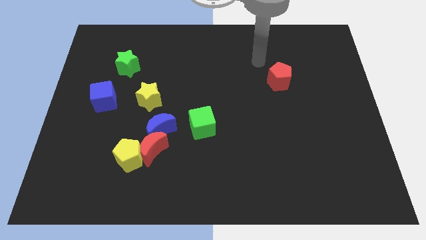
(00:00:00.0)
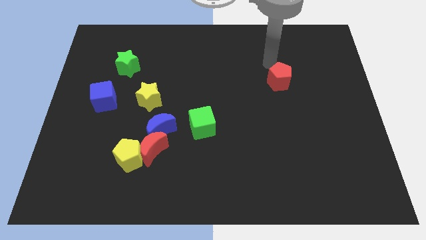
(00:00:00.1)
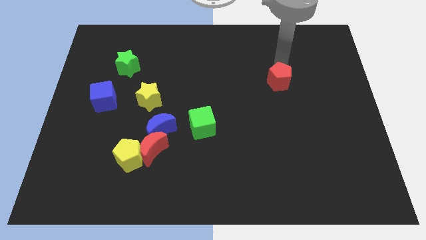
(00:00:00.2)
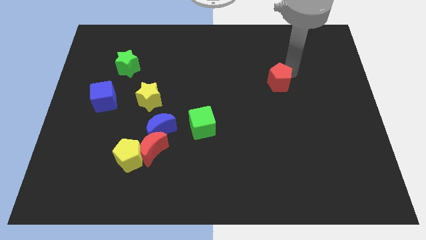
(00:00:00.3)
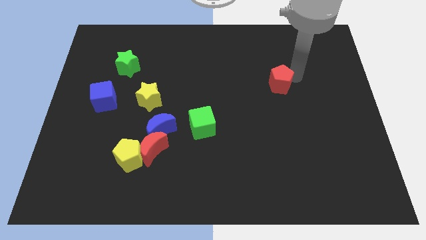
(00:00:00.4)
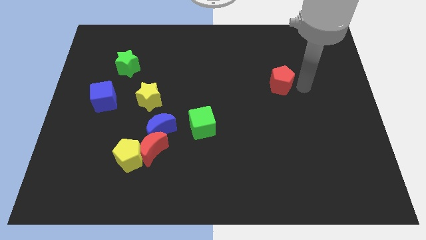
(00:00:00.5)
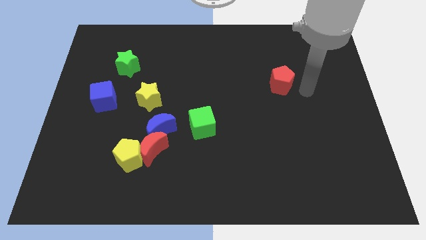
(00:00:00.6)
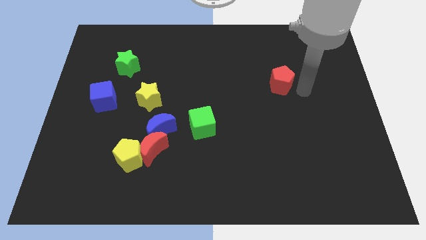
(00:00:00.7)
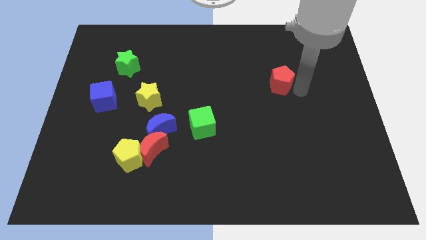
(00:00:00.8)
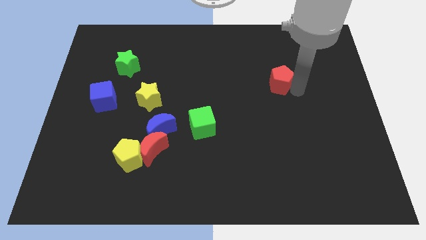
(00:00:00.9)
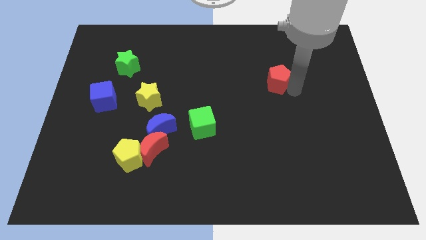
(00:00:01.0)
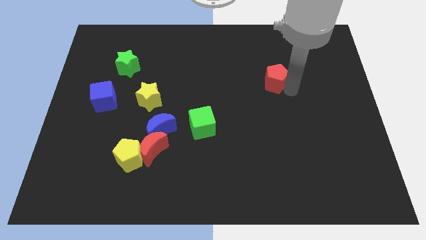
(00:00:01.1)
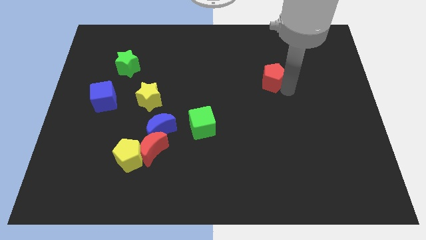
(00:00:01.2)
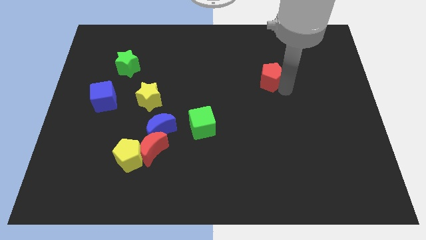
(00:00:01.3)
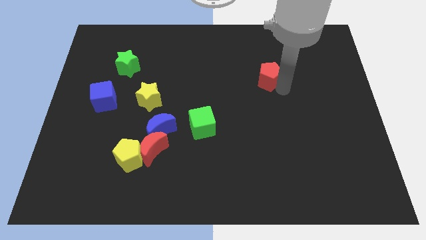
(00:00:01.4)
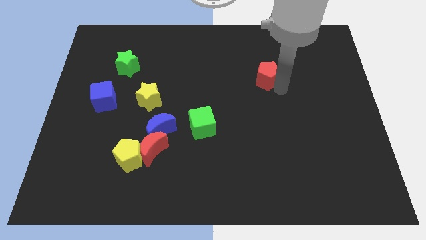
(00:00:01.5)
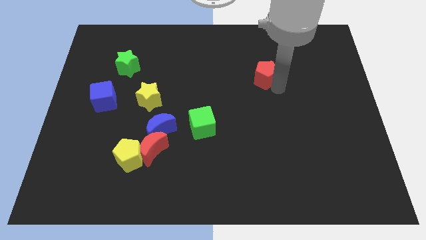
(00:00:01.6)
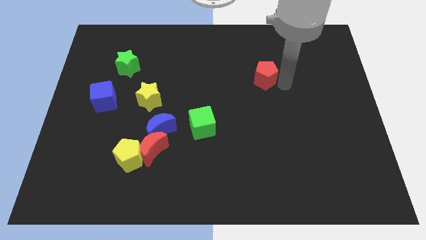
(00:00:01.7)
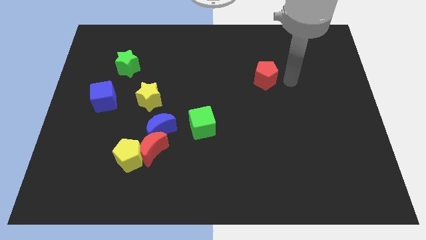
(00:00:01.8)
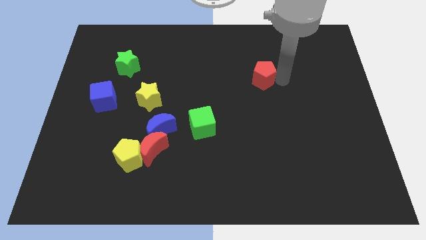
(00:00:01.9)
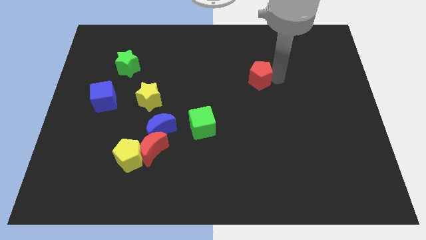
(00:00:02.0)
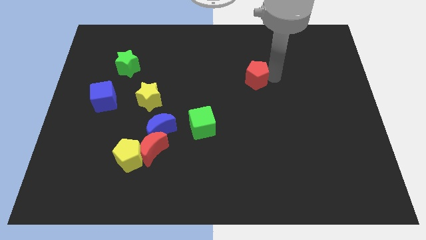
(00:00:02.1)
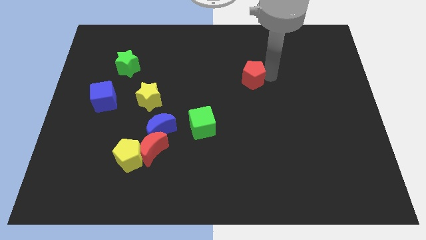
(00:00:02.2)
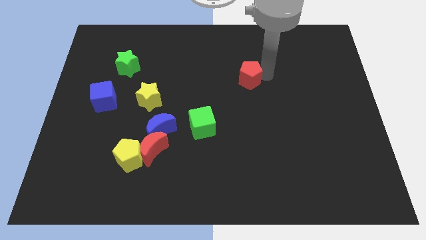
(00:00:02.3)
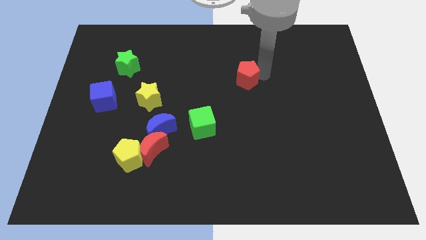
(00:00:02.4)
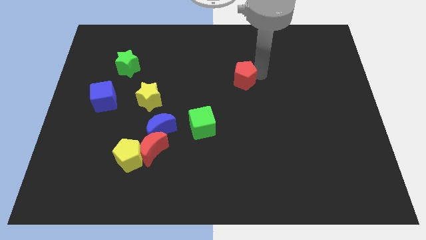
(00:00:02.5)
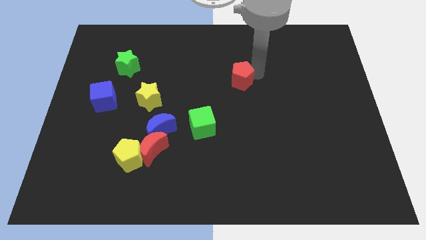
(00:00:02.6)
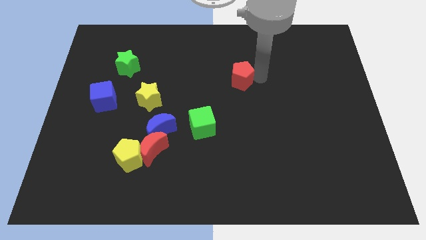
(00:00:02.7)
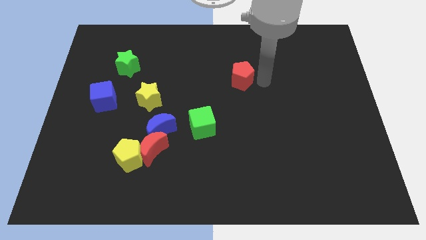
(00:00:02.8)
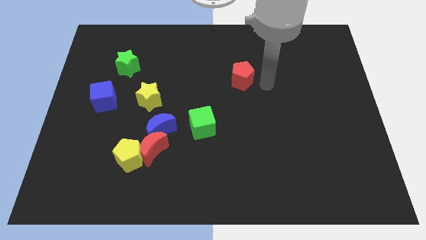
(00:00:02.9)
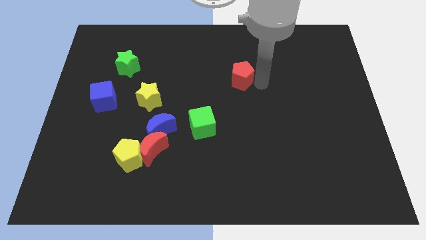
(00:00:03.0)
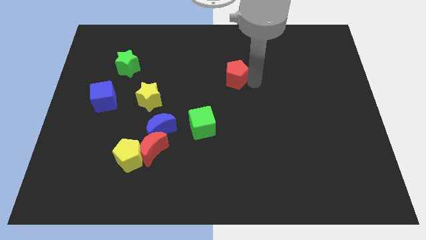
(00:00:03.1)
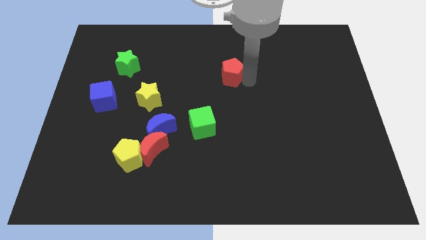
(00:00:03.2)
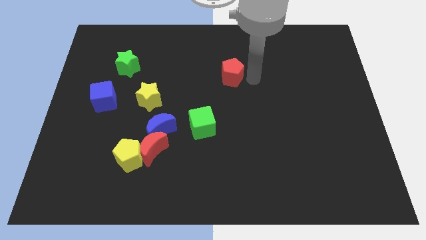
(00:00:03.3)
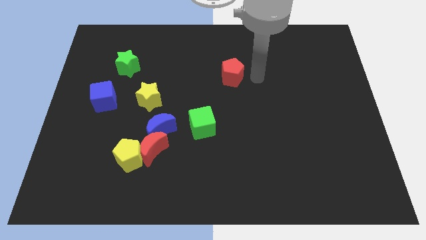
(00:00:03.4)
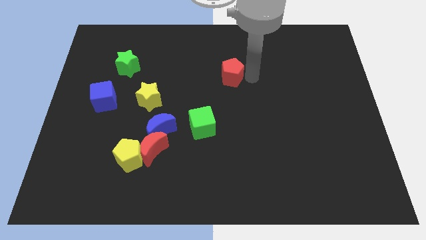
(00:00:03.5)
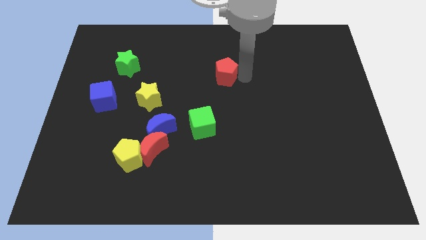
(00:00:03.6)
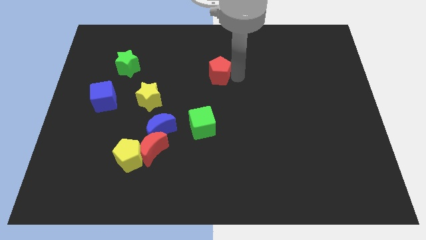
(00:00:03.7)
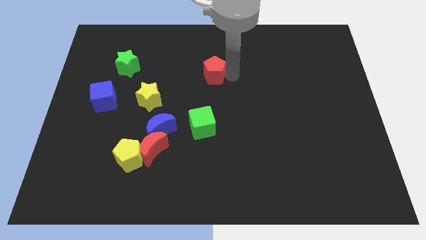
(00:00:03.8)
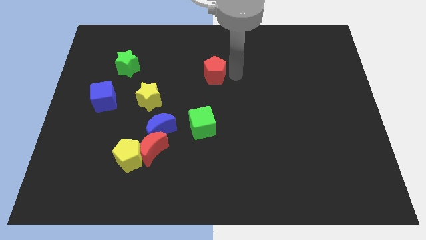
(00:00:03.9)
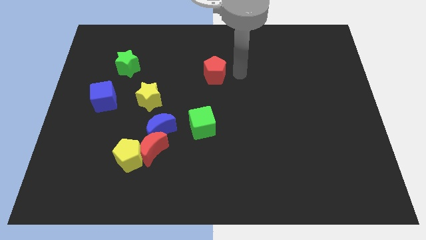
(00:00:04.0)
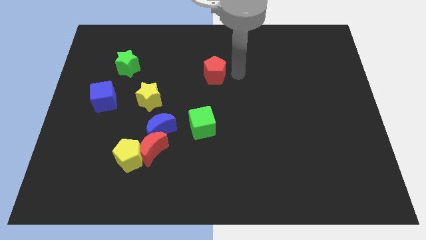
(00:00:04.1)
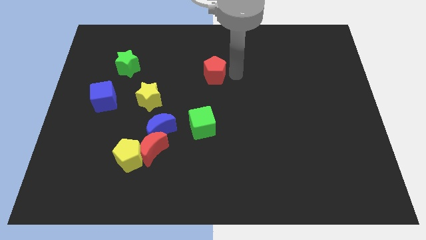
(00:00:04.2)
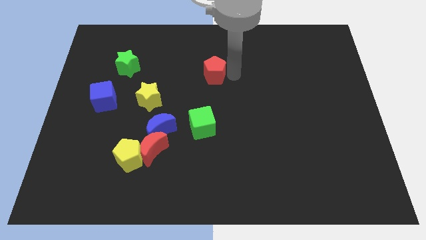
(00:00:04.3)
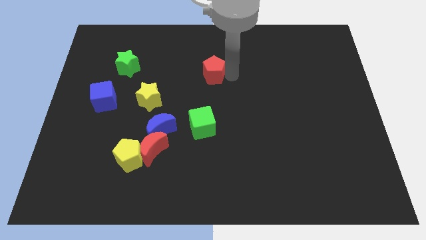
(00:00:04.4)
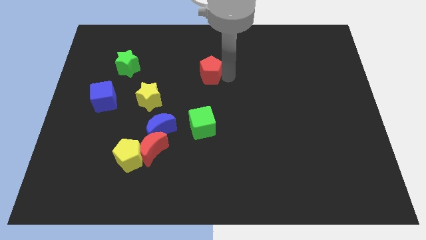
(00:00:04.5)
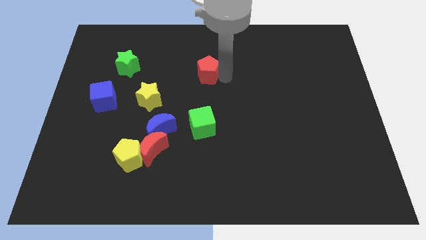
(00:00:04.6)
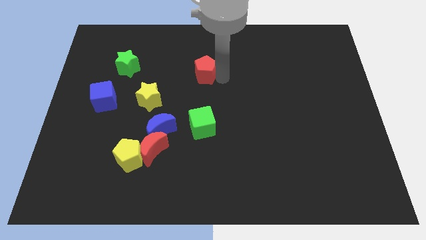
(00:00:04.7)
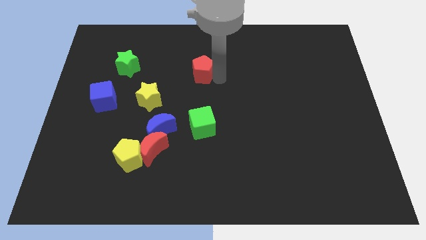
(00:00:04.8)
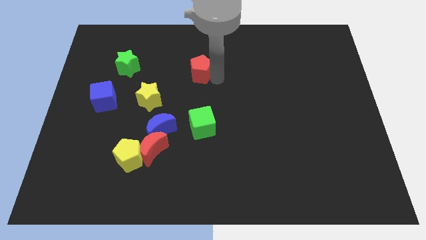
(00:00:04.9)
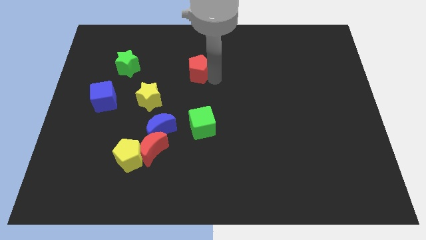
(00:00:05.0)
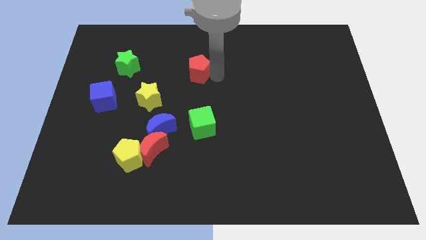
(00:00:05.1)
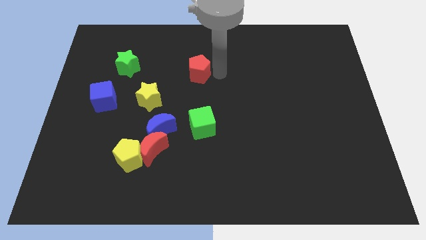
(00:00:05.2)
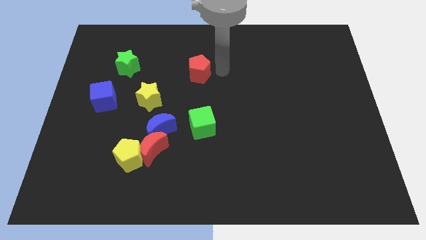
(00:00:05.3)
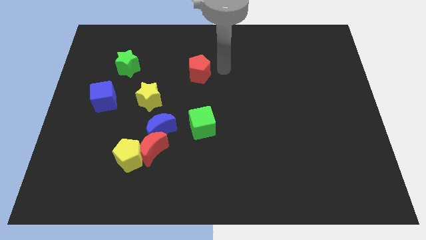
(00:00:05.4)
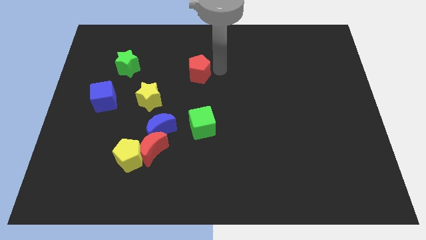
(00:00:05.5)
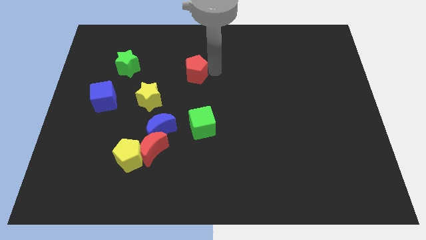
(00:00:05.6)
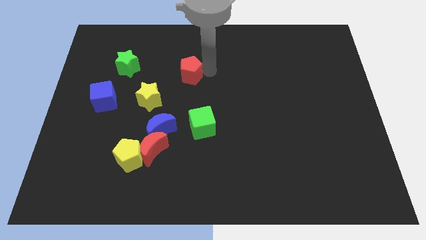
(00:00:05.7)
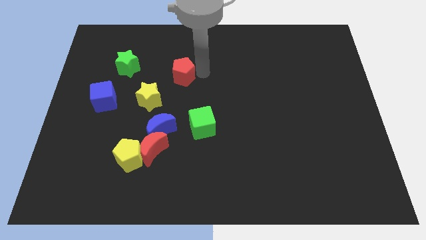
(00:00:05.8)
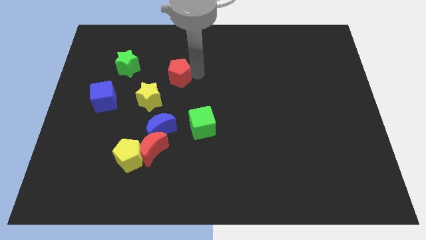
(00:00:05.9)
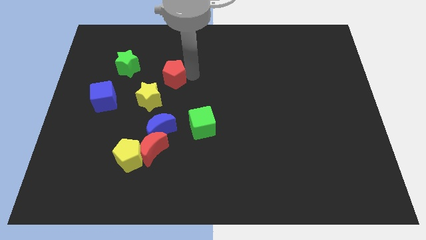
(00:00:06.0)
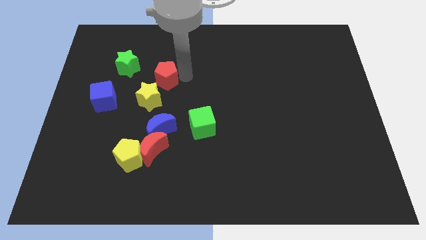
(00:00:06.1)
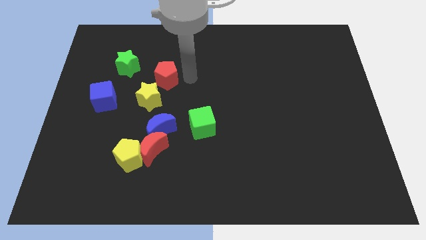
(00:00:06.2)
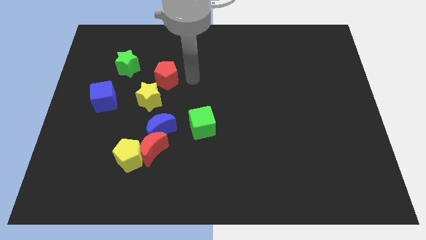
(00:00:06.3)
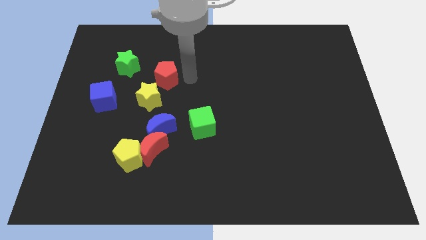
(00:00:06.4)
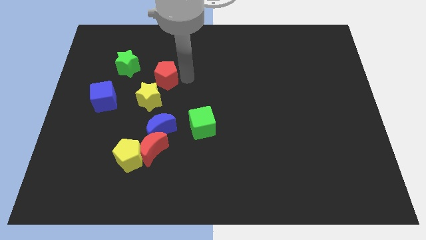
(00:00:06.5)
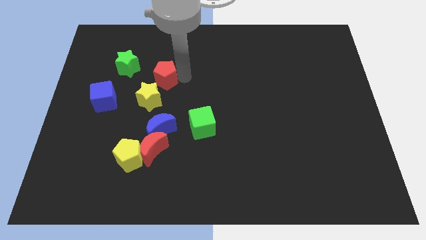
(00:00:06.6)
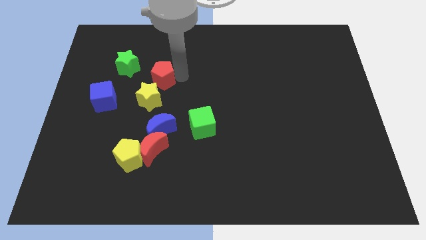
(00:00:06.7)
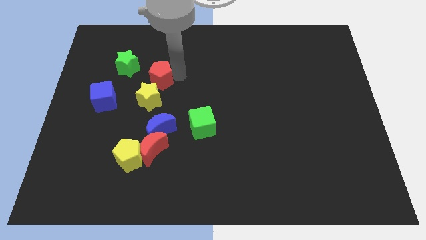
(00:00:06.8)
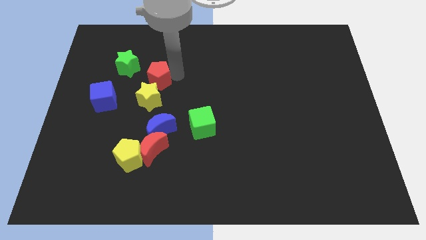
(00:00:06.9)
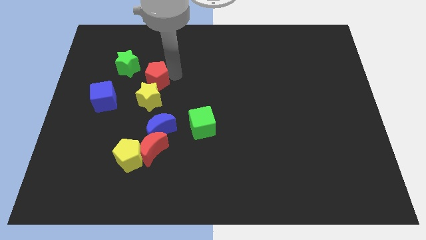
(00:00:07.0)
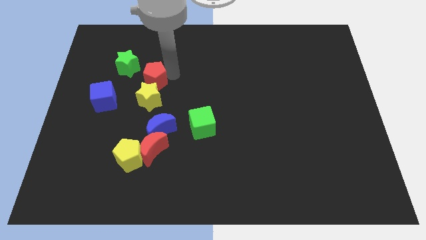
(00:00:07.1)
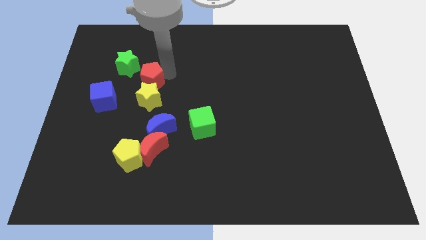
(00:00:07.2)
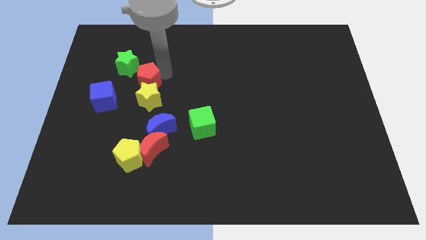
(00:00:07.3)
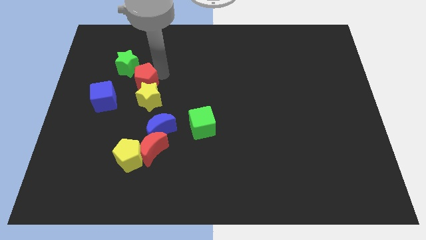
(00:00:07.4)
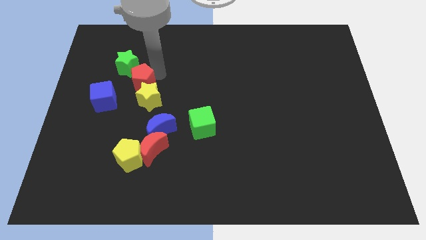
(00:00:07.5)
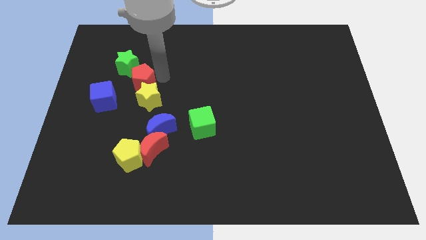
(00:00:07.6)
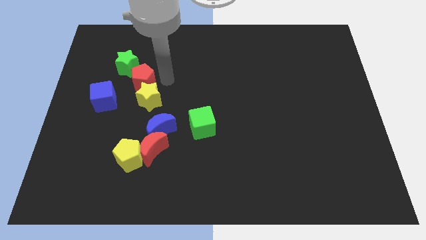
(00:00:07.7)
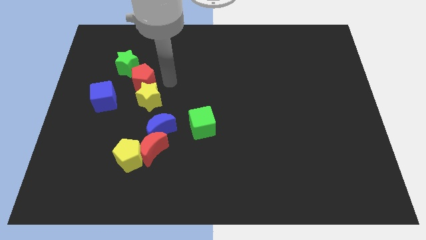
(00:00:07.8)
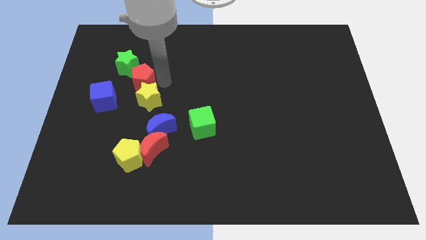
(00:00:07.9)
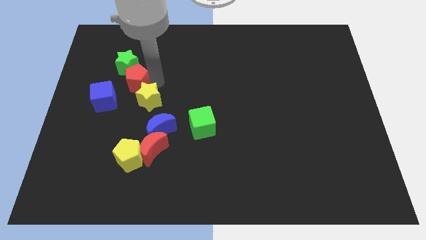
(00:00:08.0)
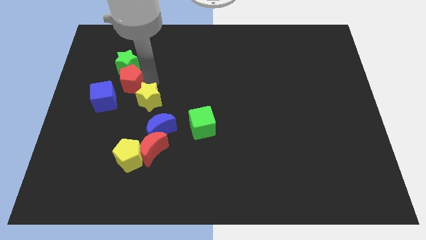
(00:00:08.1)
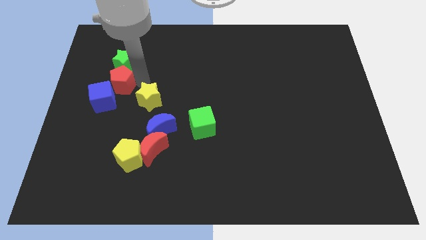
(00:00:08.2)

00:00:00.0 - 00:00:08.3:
move the red pentagon left of the yellow star
